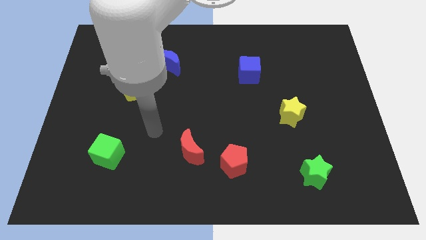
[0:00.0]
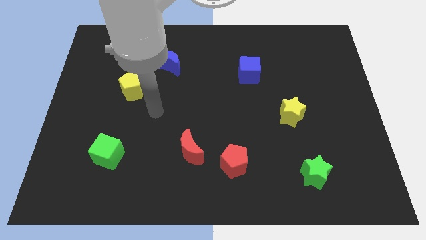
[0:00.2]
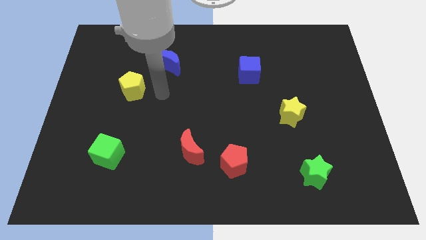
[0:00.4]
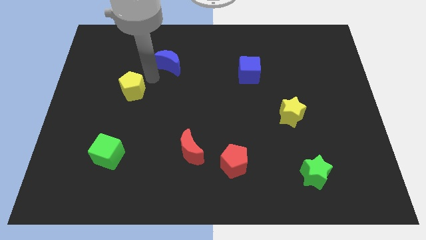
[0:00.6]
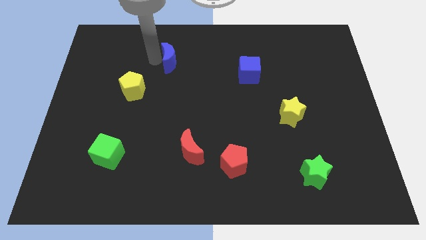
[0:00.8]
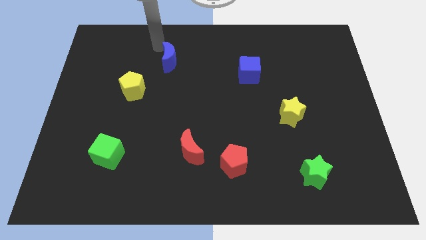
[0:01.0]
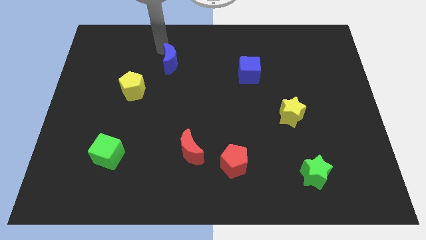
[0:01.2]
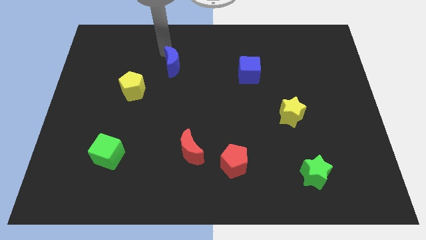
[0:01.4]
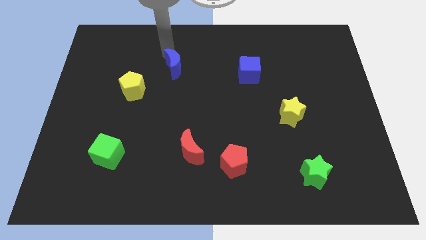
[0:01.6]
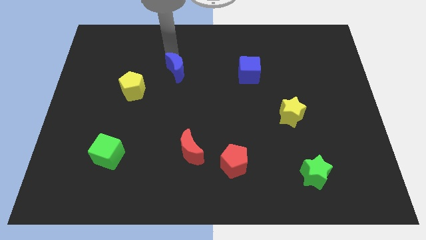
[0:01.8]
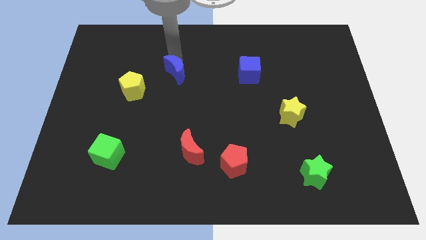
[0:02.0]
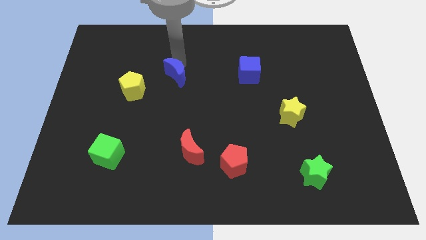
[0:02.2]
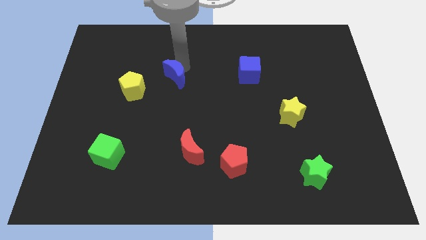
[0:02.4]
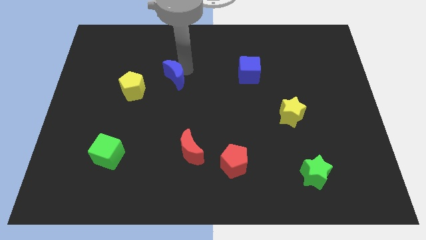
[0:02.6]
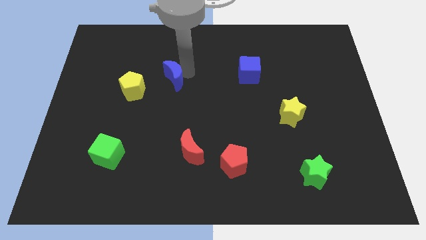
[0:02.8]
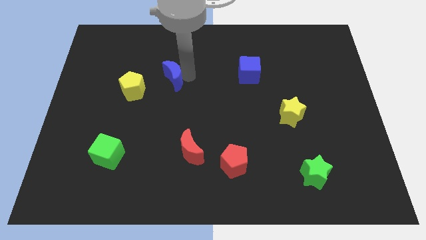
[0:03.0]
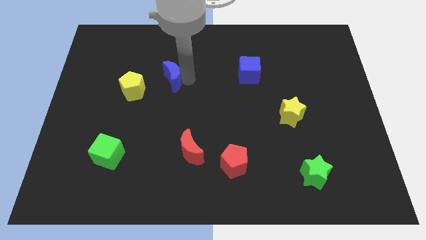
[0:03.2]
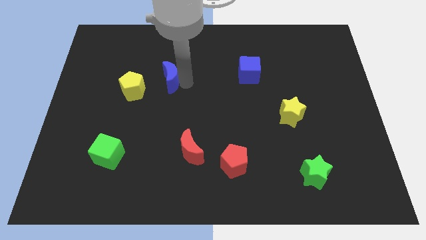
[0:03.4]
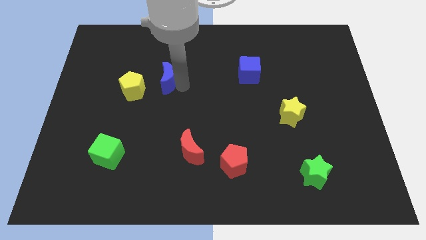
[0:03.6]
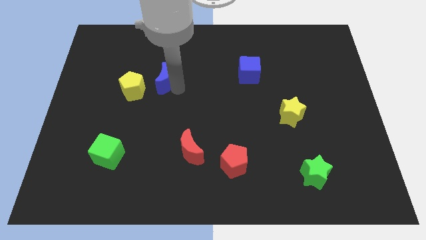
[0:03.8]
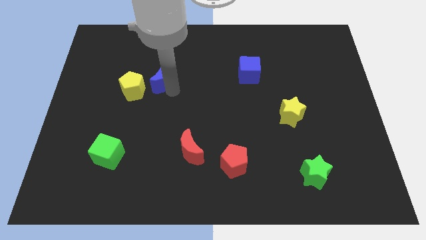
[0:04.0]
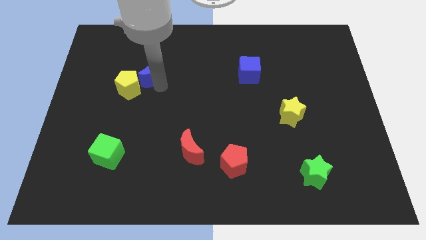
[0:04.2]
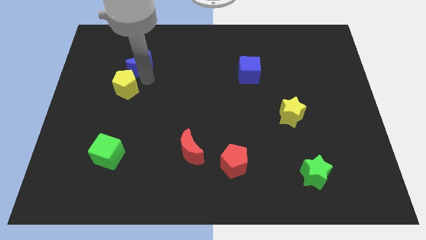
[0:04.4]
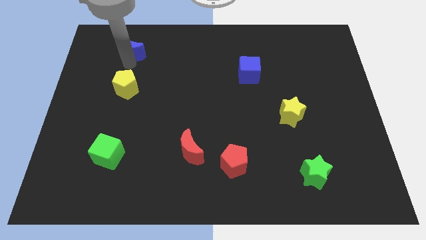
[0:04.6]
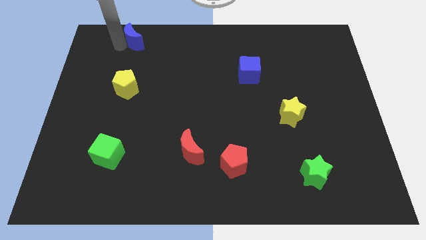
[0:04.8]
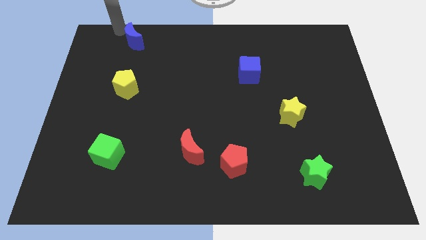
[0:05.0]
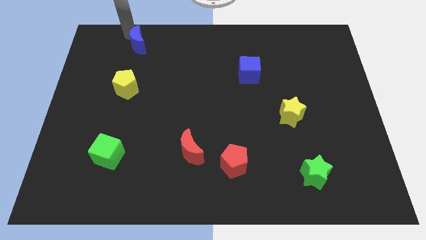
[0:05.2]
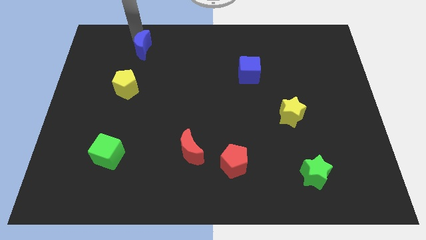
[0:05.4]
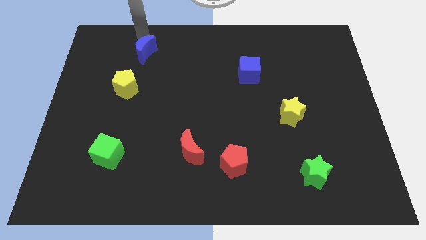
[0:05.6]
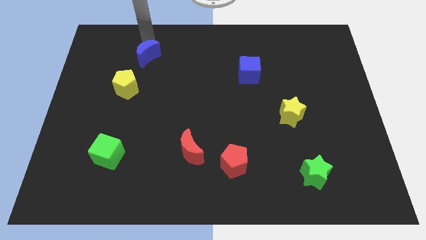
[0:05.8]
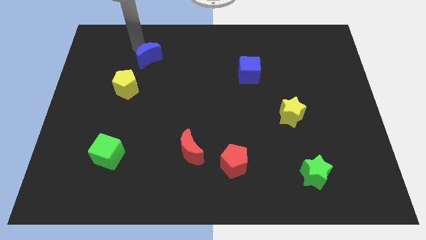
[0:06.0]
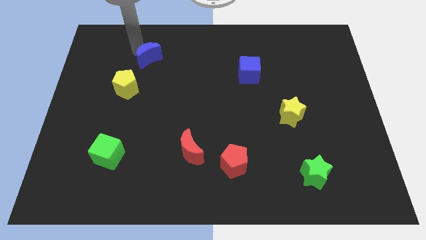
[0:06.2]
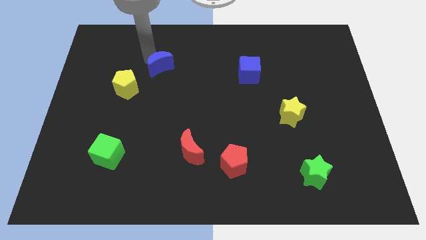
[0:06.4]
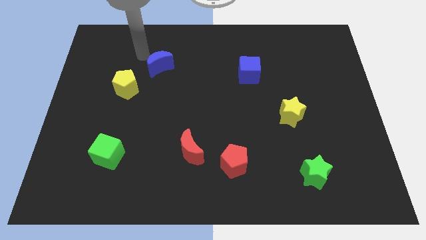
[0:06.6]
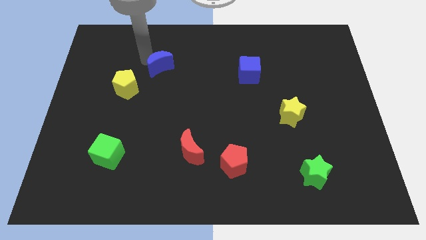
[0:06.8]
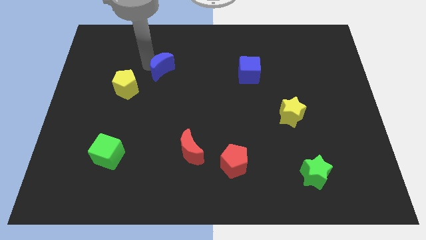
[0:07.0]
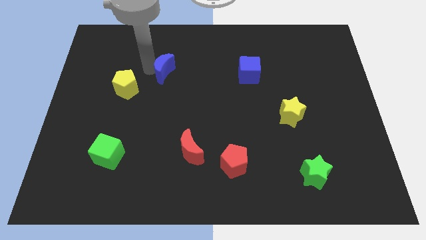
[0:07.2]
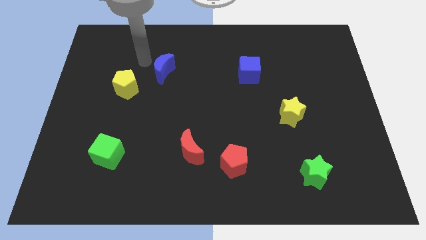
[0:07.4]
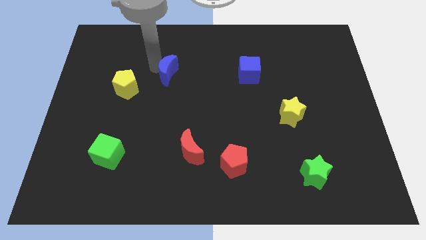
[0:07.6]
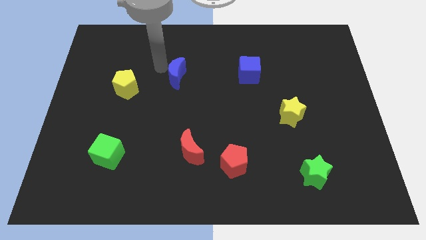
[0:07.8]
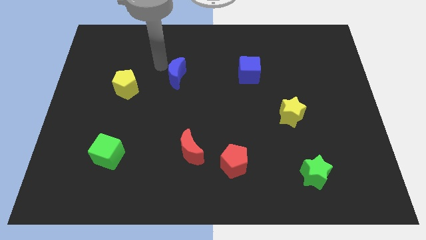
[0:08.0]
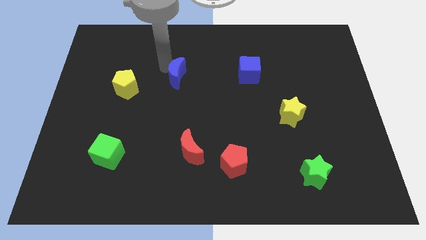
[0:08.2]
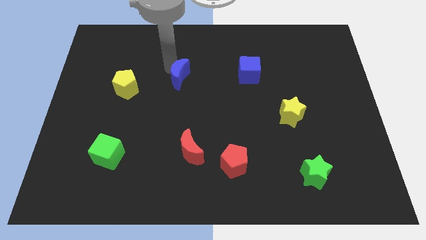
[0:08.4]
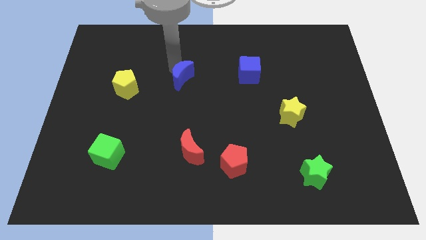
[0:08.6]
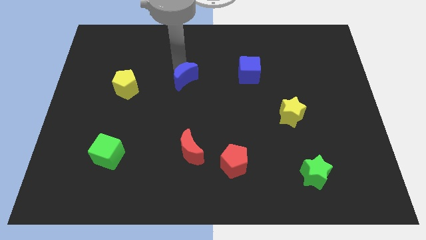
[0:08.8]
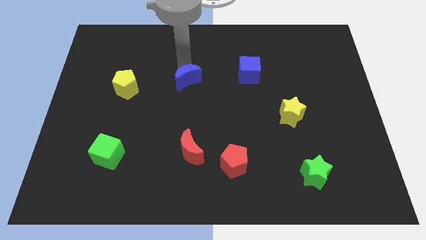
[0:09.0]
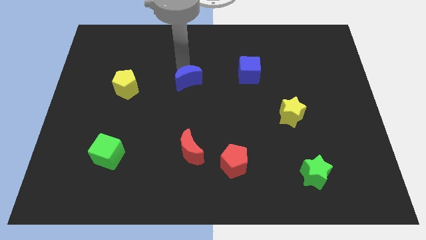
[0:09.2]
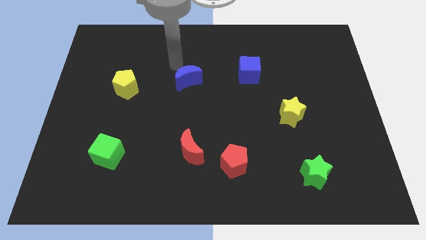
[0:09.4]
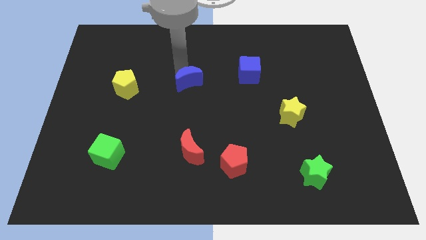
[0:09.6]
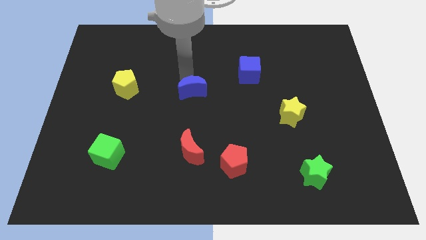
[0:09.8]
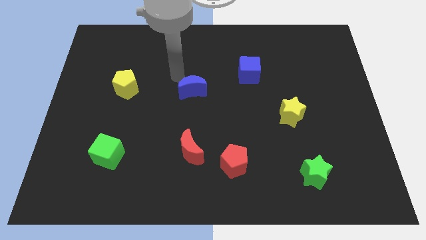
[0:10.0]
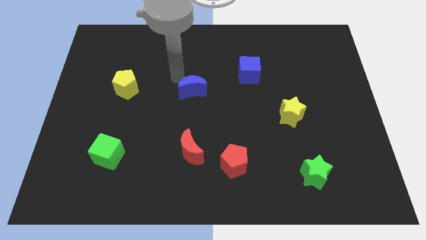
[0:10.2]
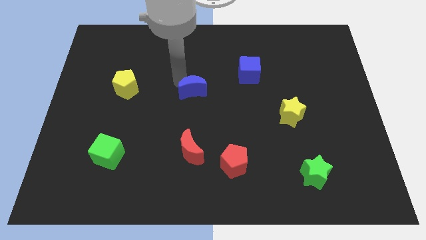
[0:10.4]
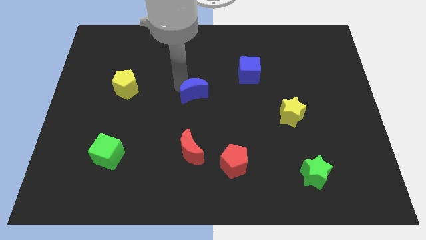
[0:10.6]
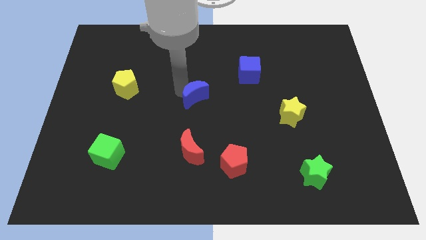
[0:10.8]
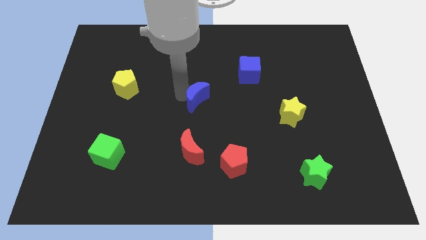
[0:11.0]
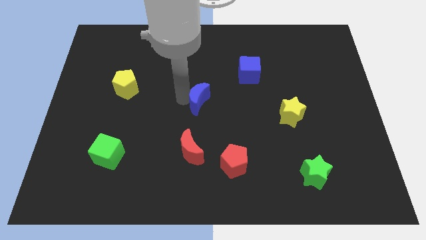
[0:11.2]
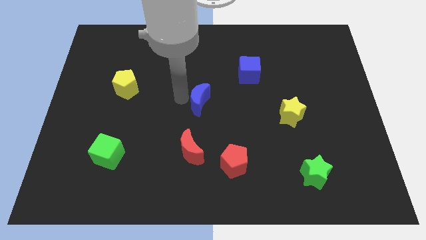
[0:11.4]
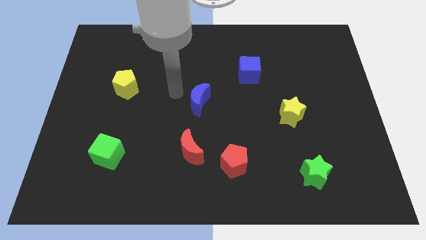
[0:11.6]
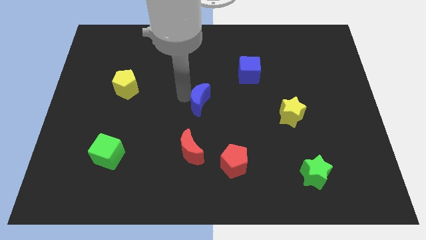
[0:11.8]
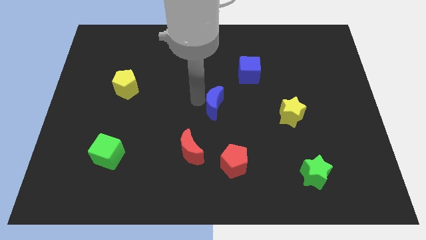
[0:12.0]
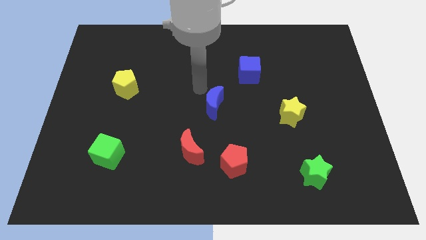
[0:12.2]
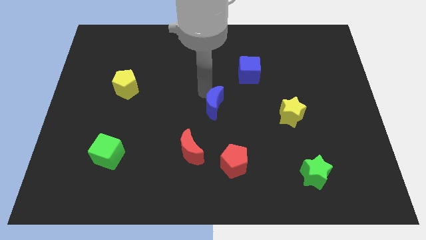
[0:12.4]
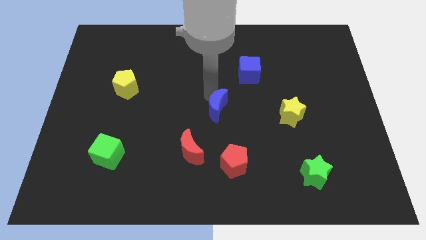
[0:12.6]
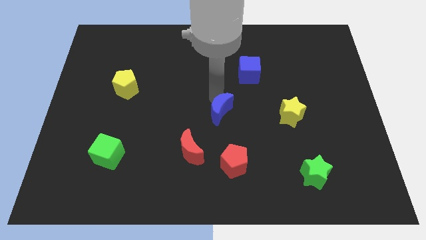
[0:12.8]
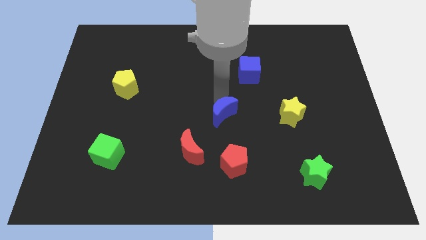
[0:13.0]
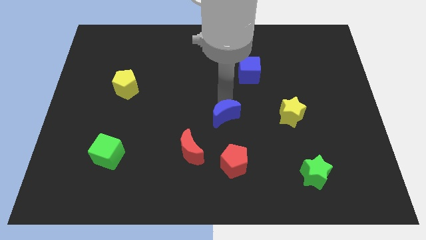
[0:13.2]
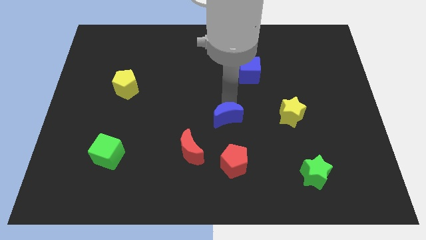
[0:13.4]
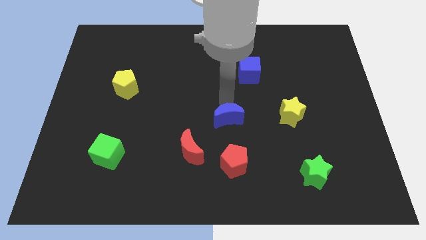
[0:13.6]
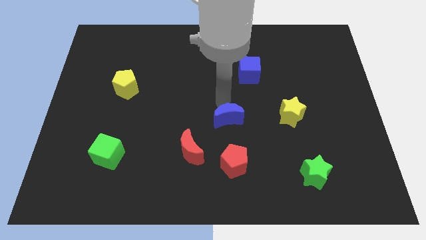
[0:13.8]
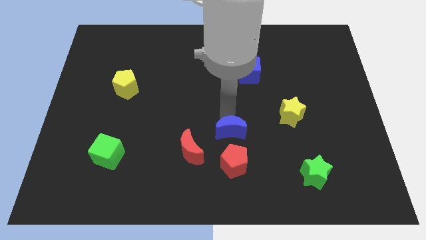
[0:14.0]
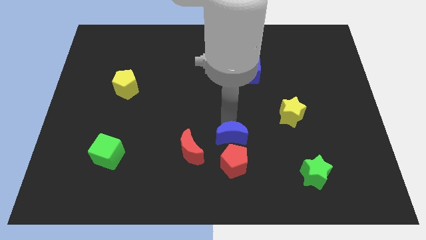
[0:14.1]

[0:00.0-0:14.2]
slide the blue moon right of the red moon
